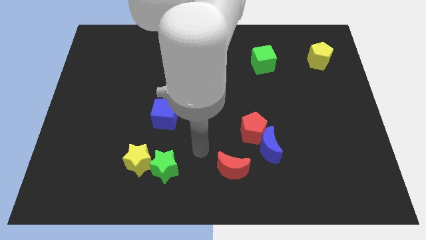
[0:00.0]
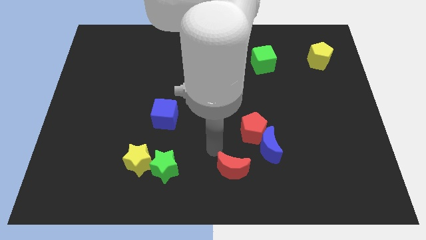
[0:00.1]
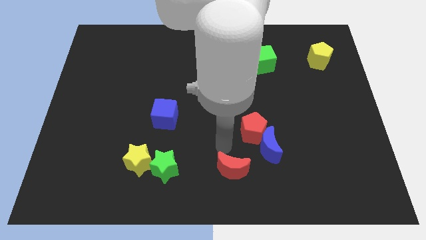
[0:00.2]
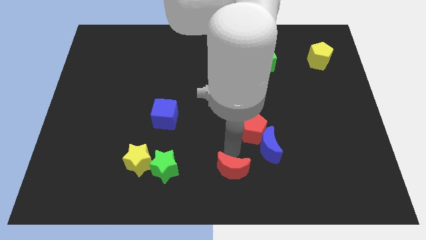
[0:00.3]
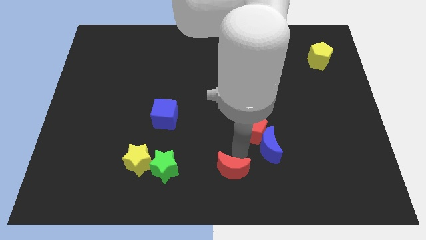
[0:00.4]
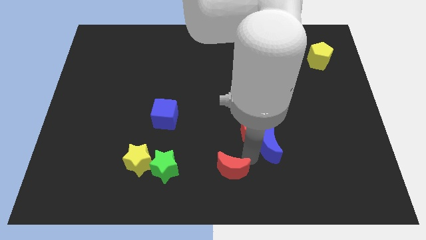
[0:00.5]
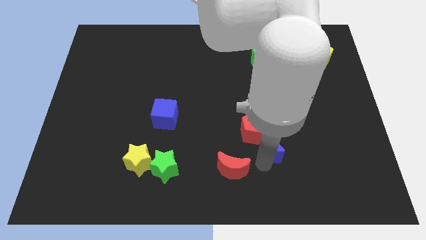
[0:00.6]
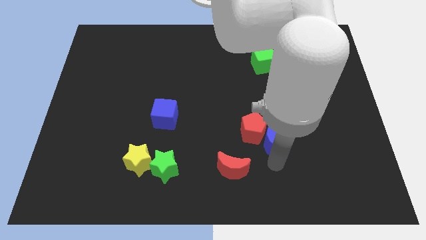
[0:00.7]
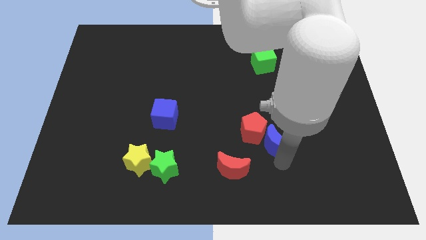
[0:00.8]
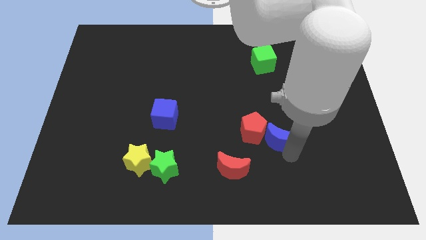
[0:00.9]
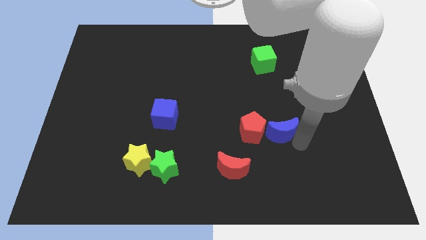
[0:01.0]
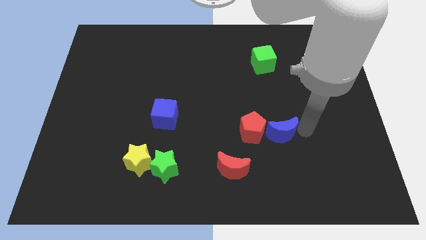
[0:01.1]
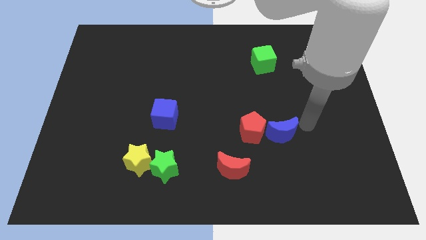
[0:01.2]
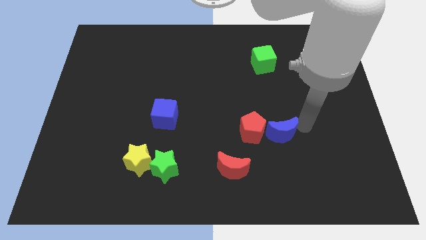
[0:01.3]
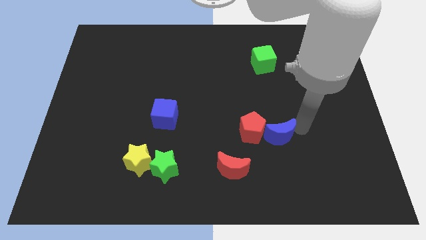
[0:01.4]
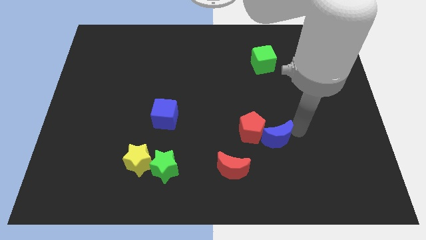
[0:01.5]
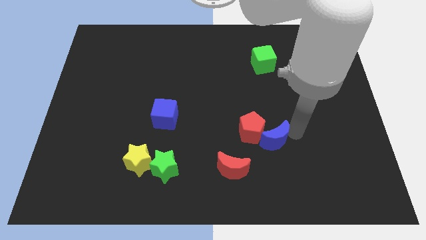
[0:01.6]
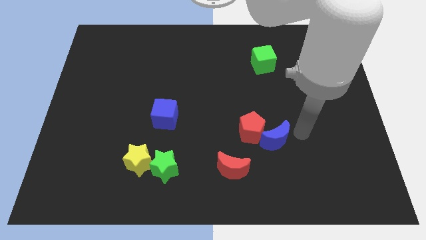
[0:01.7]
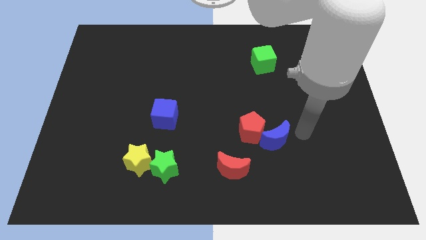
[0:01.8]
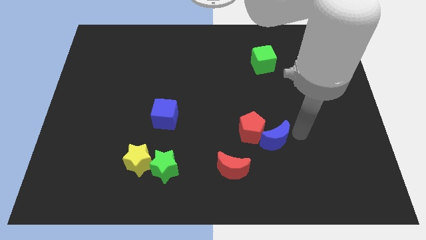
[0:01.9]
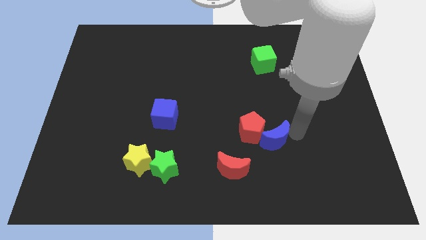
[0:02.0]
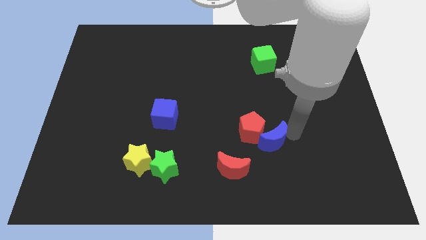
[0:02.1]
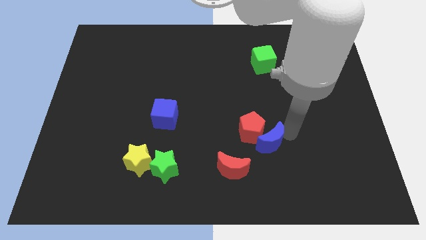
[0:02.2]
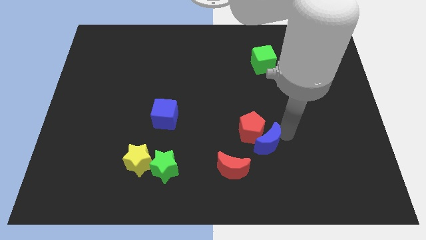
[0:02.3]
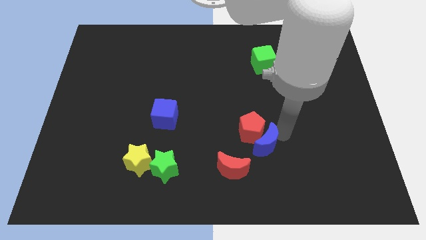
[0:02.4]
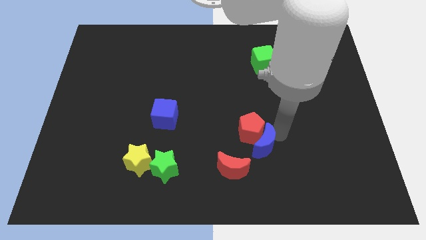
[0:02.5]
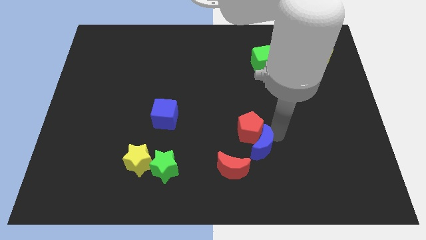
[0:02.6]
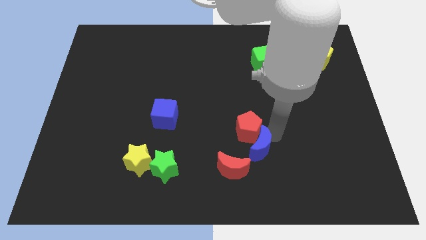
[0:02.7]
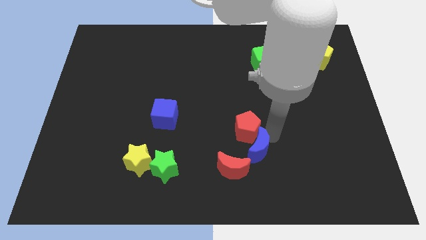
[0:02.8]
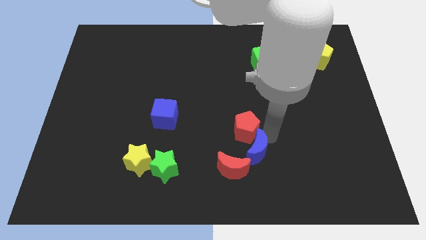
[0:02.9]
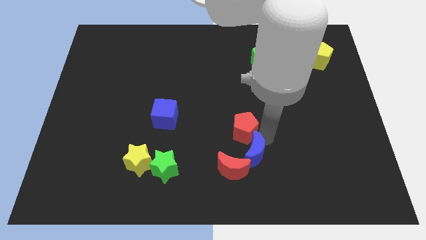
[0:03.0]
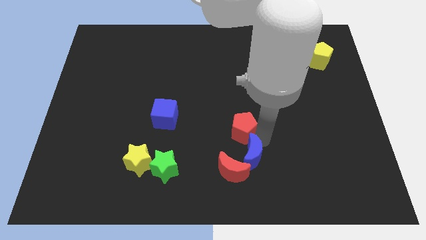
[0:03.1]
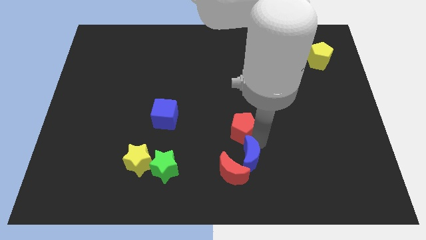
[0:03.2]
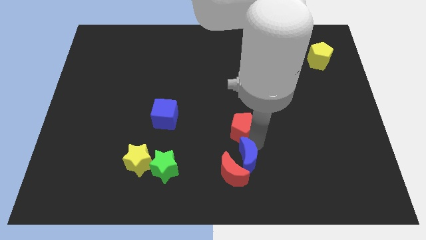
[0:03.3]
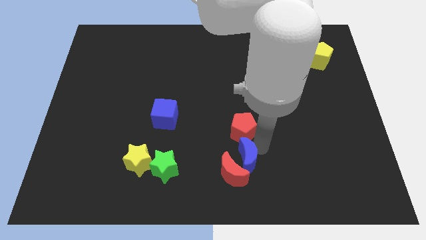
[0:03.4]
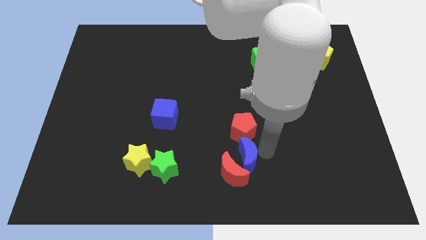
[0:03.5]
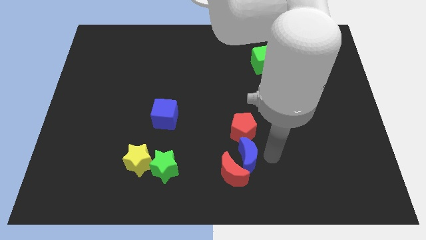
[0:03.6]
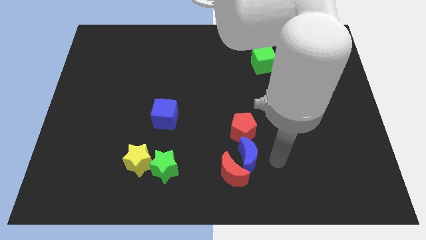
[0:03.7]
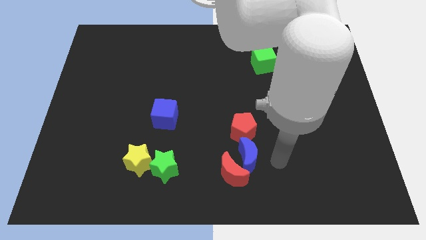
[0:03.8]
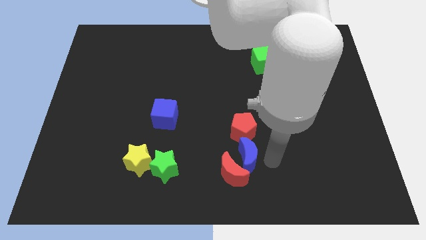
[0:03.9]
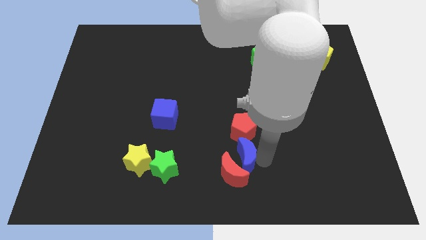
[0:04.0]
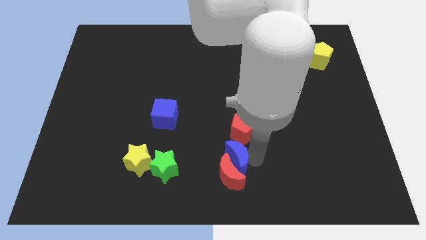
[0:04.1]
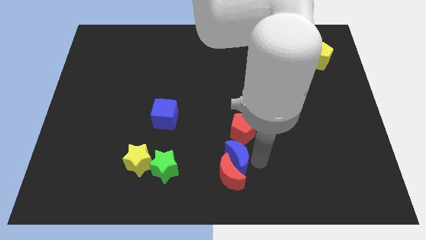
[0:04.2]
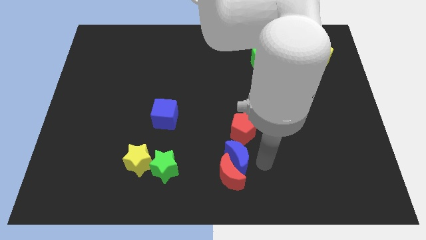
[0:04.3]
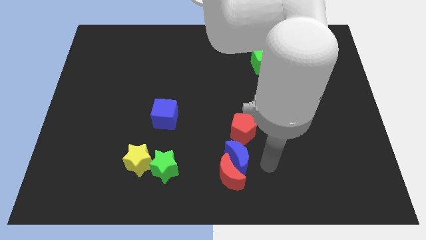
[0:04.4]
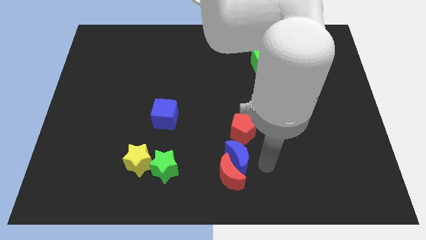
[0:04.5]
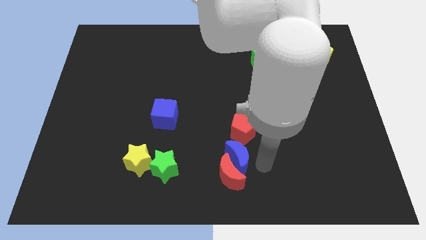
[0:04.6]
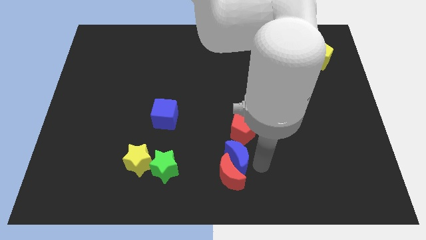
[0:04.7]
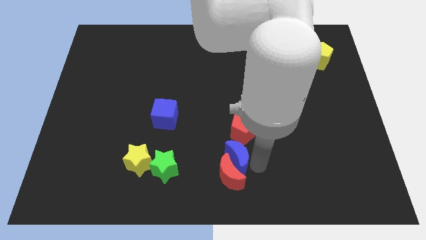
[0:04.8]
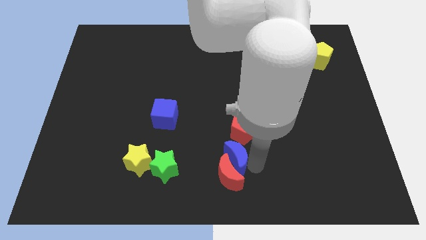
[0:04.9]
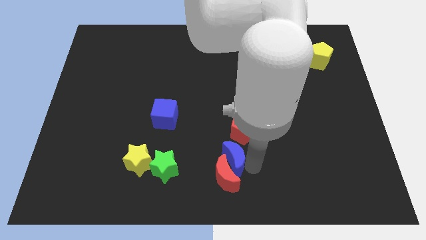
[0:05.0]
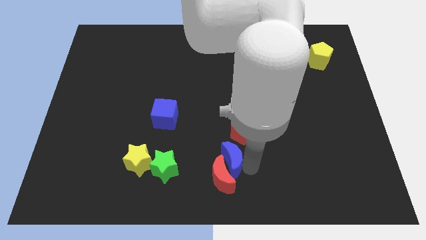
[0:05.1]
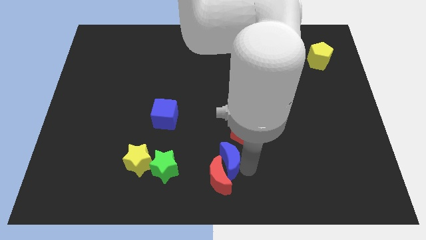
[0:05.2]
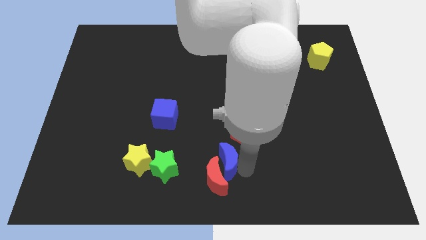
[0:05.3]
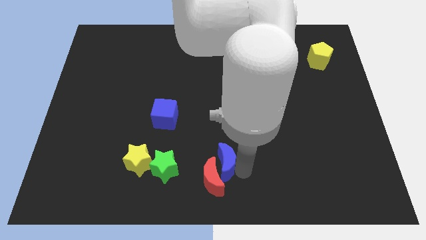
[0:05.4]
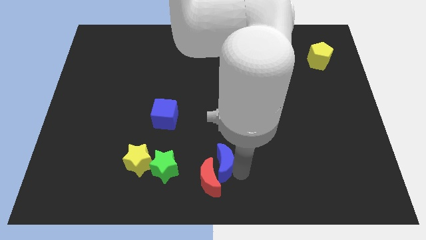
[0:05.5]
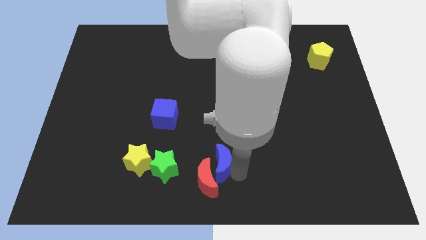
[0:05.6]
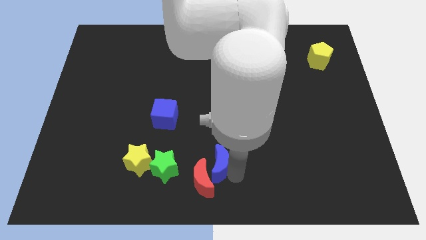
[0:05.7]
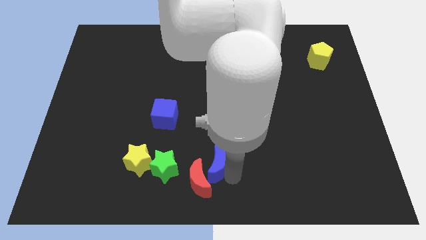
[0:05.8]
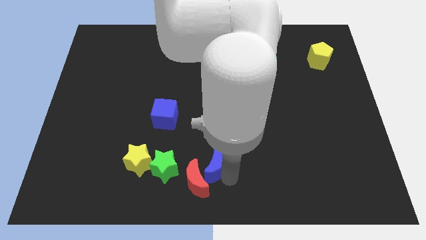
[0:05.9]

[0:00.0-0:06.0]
move the blue moon just right of the yellow star

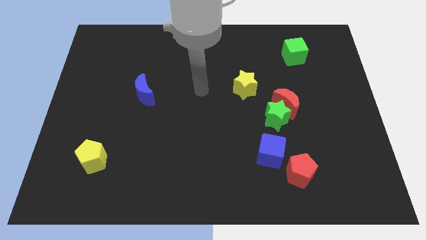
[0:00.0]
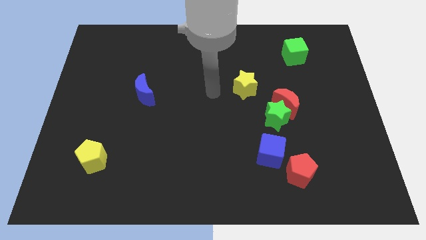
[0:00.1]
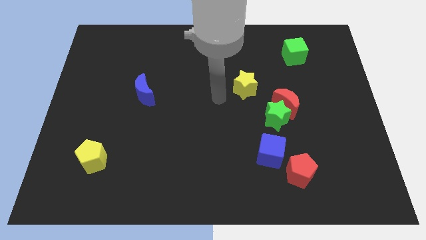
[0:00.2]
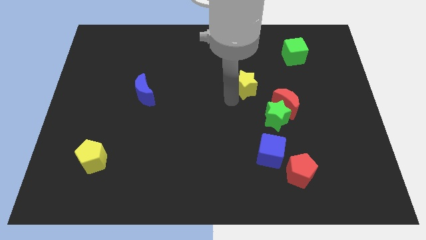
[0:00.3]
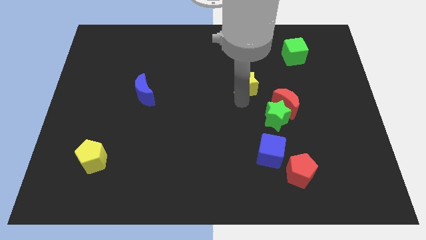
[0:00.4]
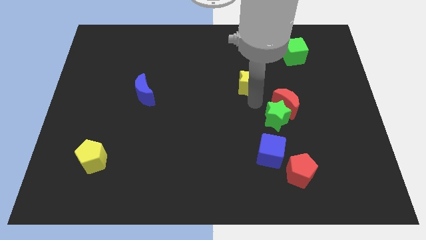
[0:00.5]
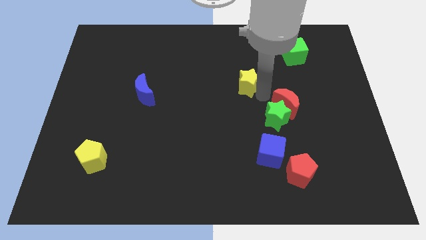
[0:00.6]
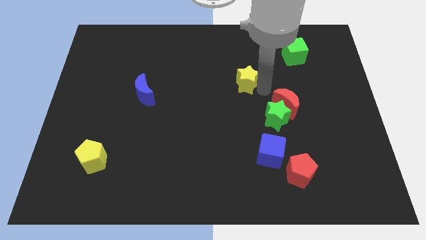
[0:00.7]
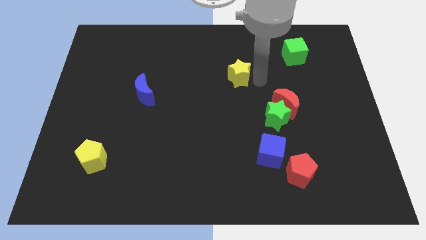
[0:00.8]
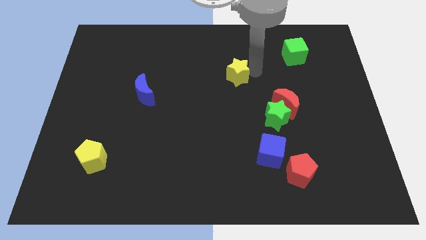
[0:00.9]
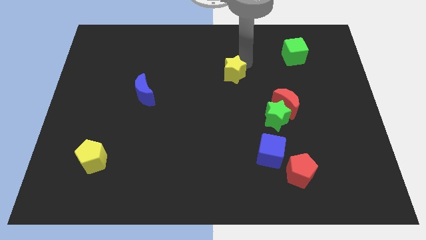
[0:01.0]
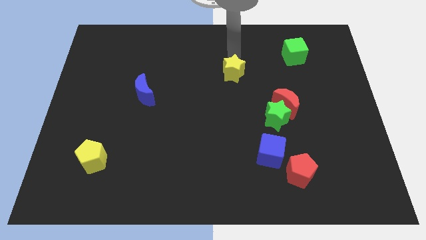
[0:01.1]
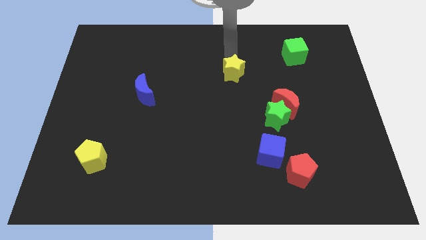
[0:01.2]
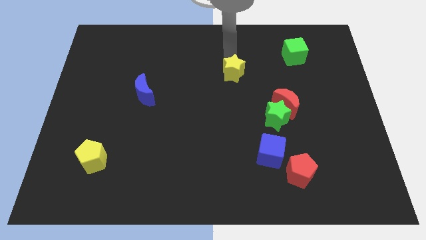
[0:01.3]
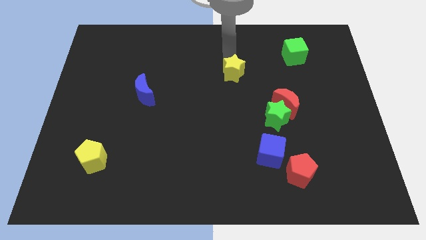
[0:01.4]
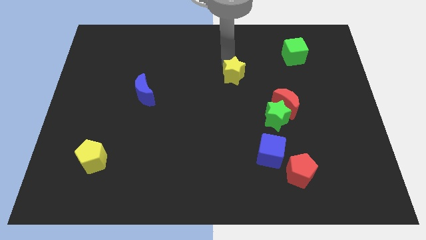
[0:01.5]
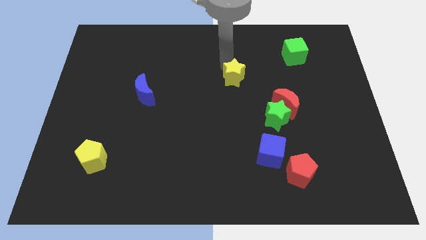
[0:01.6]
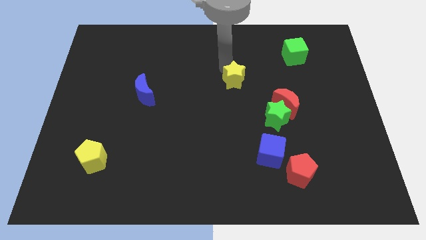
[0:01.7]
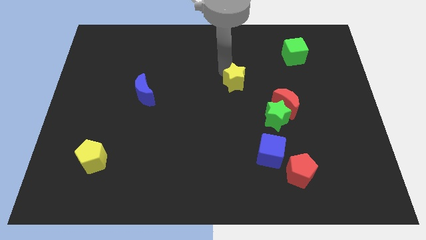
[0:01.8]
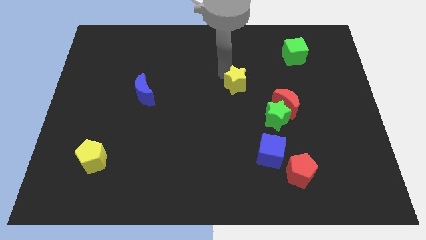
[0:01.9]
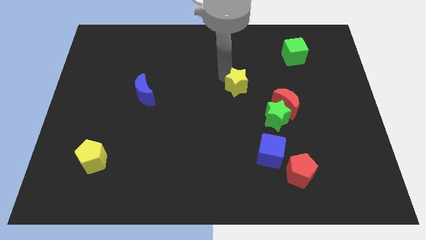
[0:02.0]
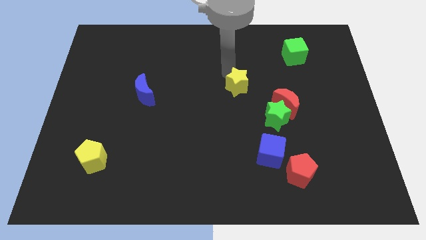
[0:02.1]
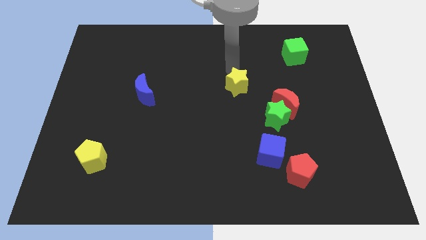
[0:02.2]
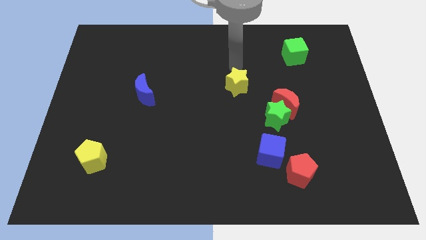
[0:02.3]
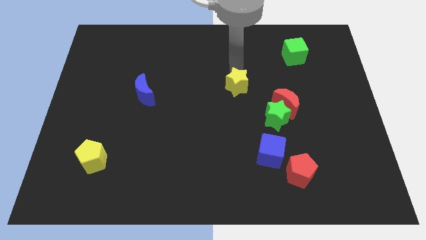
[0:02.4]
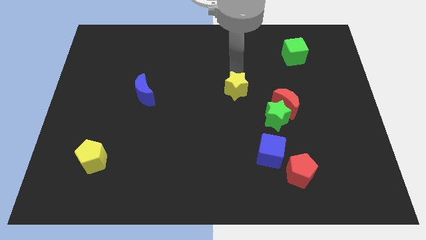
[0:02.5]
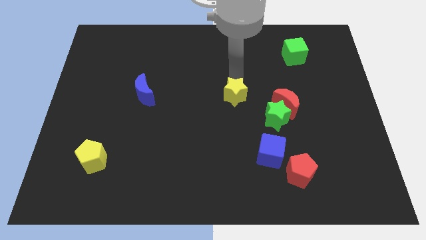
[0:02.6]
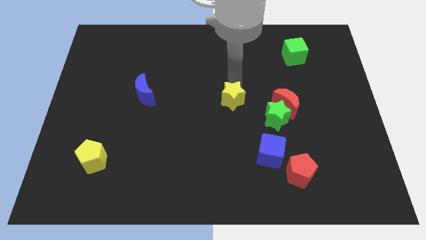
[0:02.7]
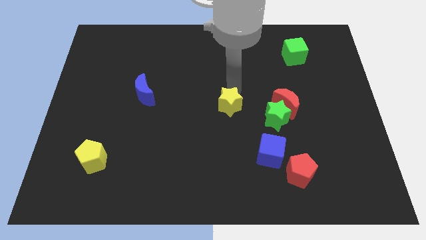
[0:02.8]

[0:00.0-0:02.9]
slide the yellow star just left of the green star
